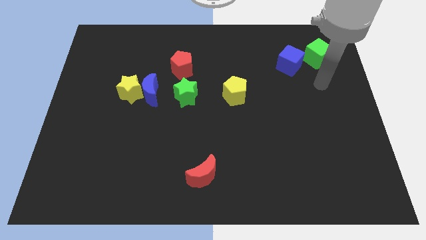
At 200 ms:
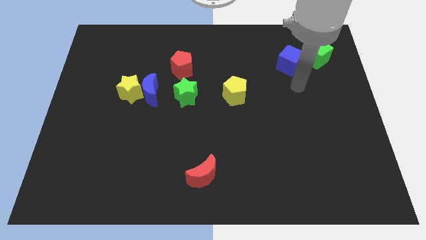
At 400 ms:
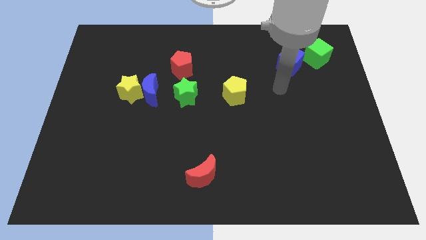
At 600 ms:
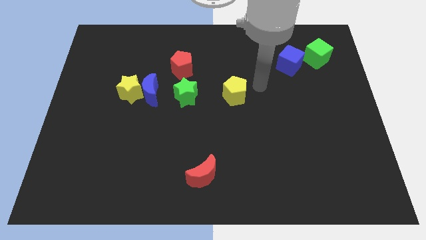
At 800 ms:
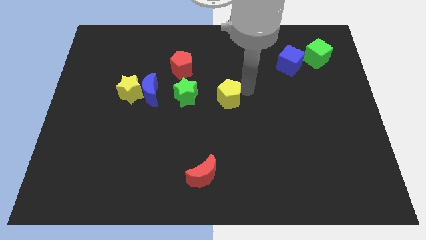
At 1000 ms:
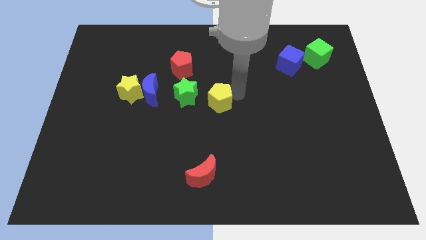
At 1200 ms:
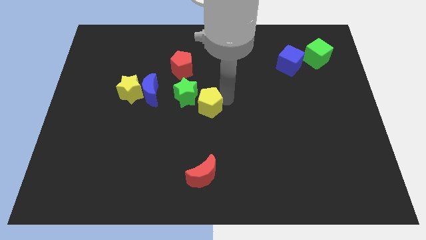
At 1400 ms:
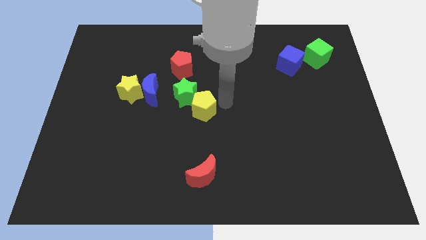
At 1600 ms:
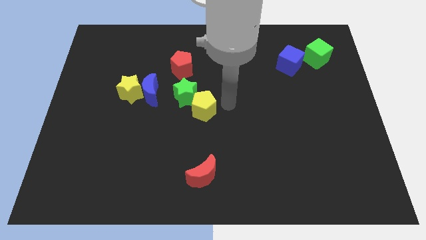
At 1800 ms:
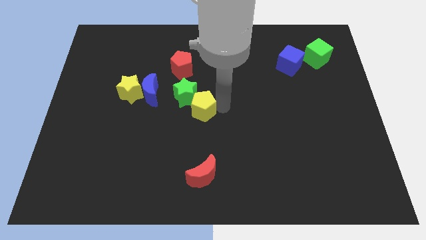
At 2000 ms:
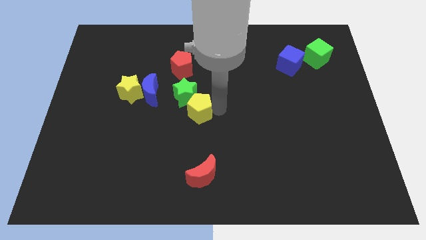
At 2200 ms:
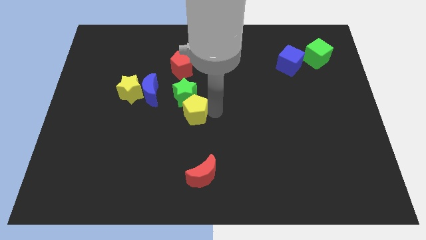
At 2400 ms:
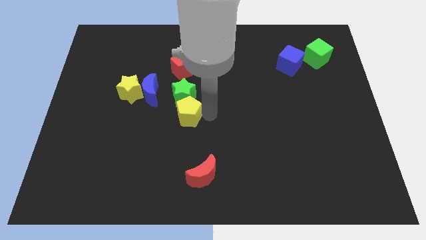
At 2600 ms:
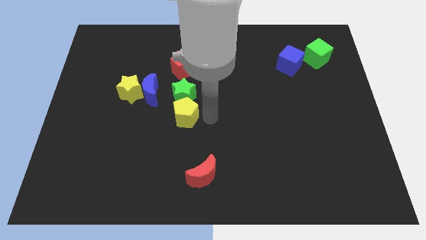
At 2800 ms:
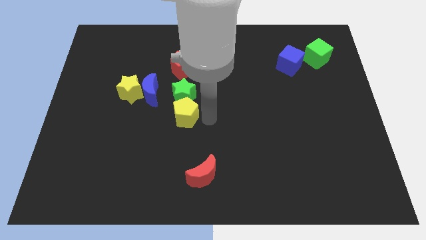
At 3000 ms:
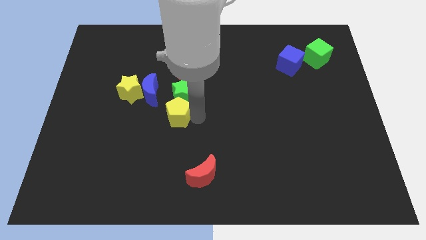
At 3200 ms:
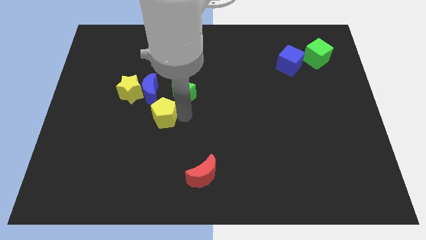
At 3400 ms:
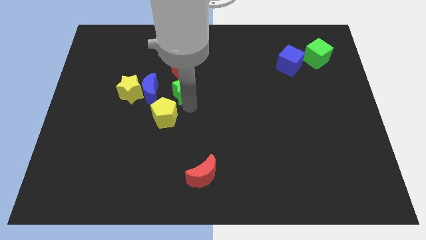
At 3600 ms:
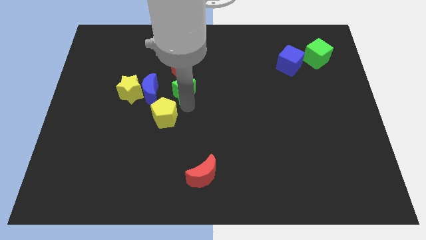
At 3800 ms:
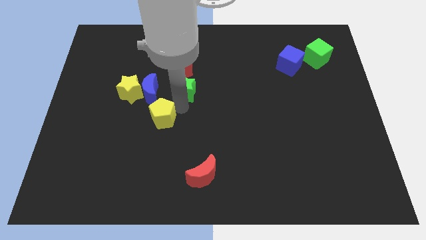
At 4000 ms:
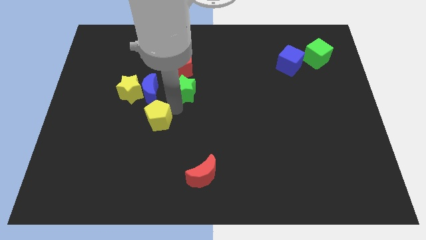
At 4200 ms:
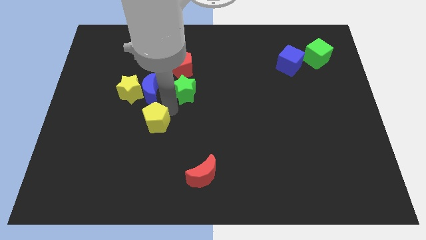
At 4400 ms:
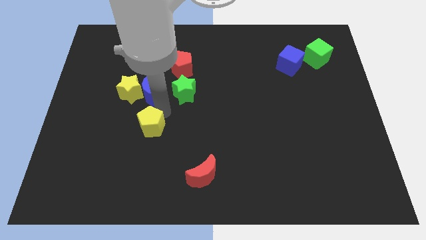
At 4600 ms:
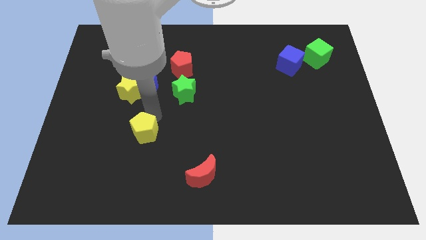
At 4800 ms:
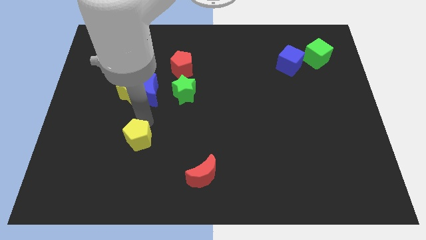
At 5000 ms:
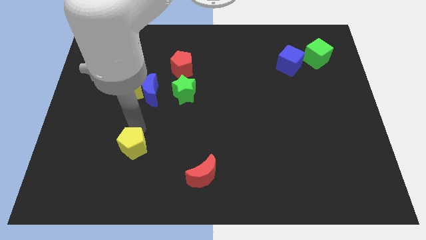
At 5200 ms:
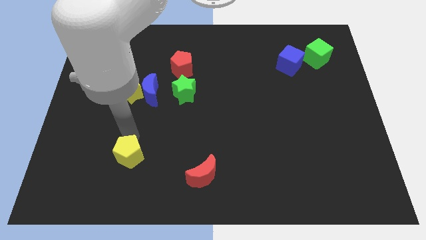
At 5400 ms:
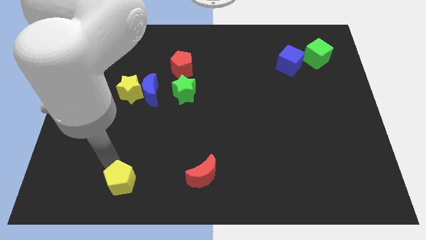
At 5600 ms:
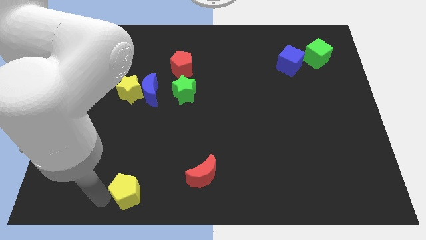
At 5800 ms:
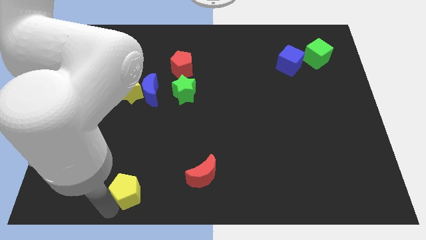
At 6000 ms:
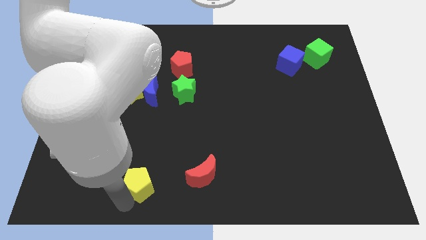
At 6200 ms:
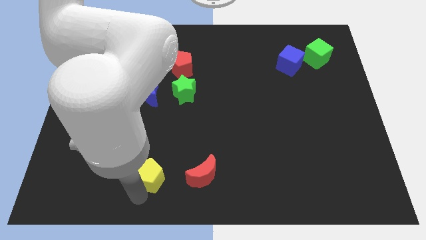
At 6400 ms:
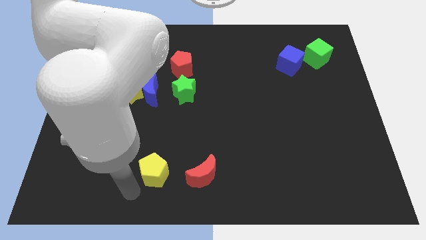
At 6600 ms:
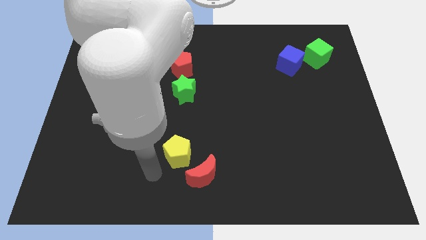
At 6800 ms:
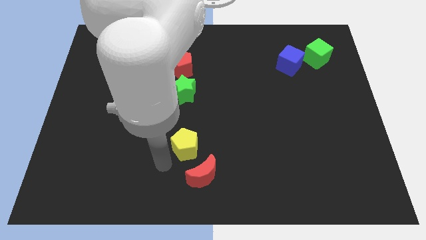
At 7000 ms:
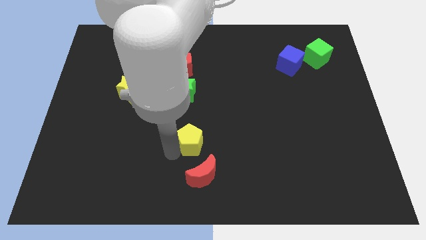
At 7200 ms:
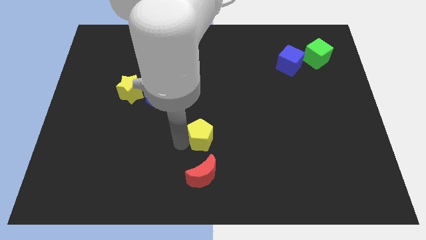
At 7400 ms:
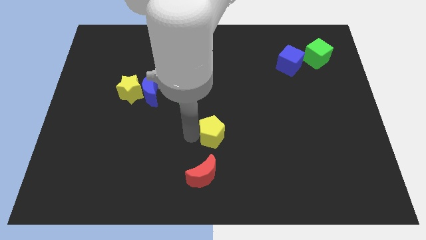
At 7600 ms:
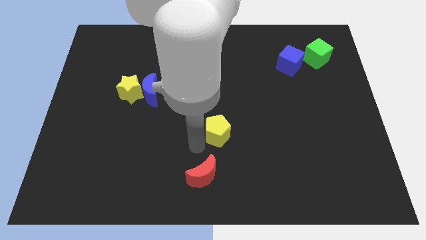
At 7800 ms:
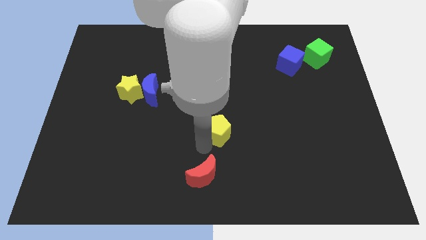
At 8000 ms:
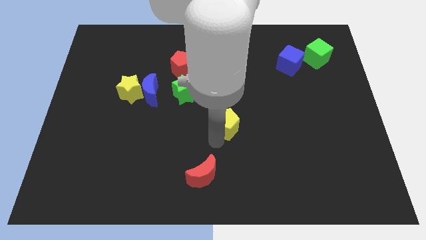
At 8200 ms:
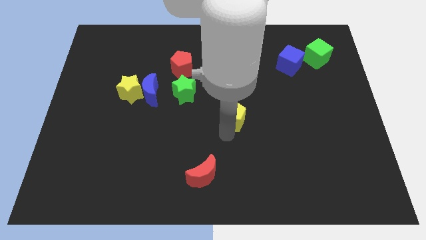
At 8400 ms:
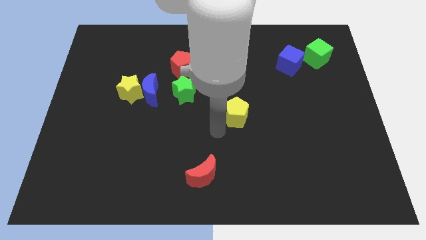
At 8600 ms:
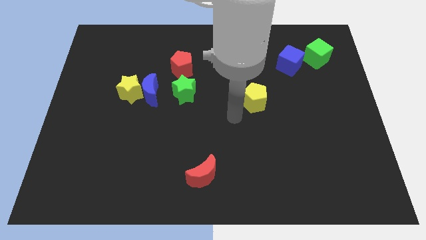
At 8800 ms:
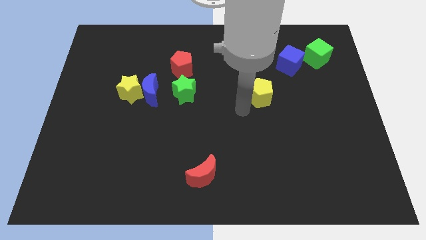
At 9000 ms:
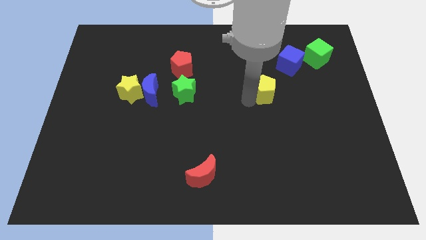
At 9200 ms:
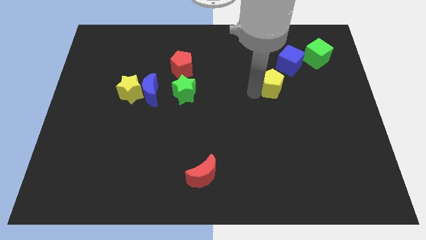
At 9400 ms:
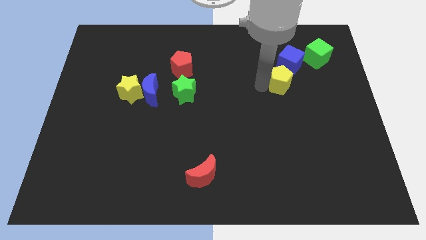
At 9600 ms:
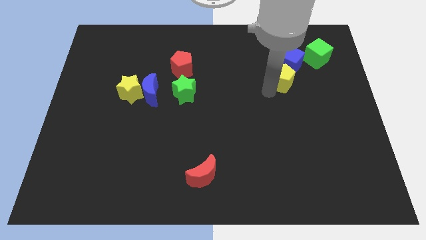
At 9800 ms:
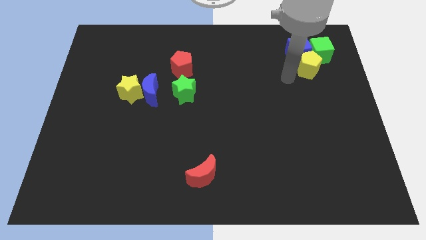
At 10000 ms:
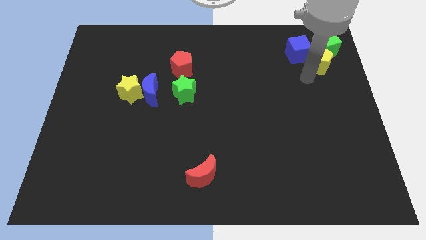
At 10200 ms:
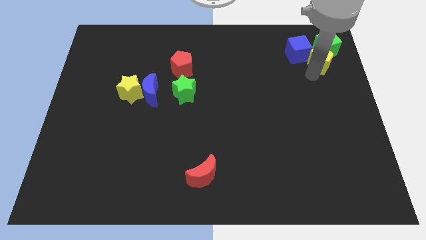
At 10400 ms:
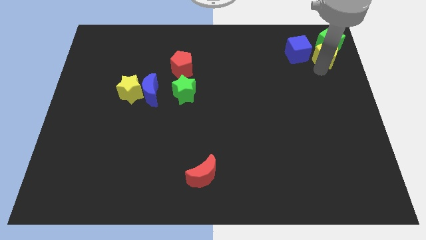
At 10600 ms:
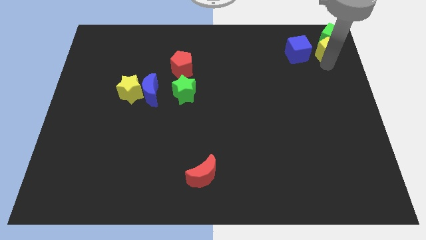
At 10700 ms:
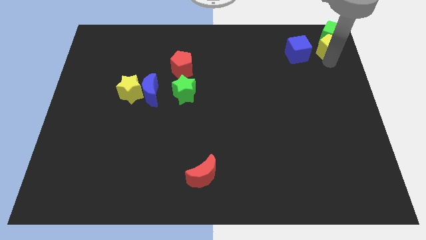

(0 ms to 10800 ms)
move the yellow pentagon to the upper right corner
